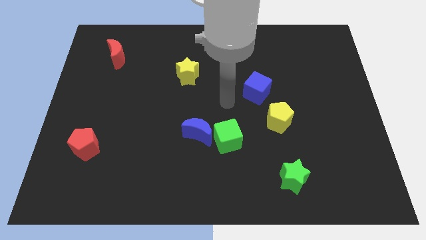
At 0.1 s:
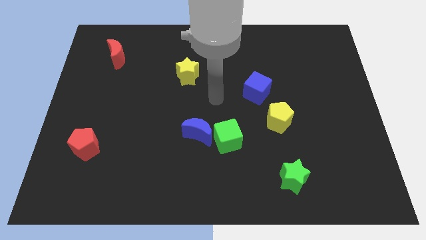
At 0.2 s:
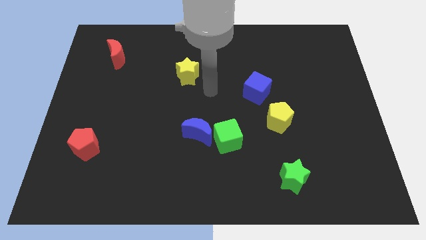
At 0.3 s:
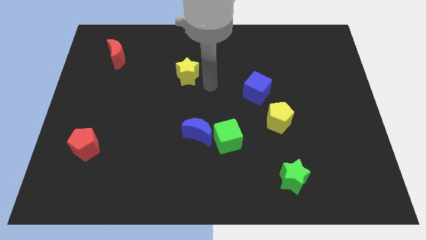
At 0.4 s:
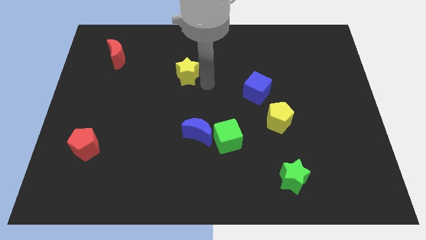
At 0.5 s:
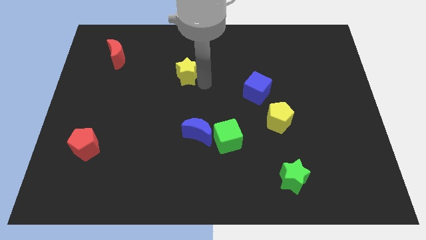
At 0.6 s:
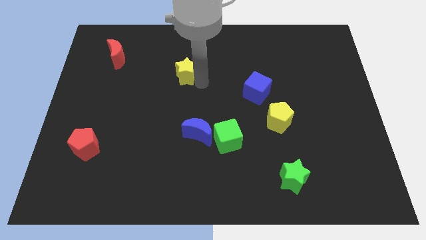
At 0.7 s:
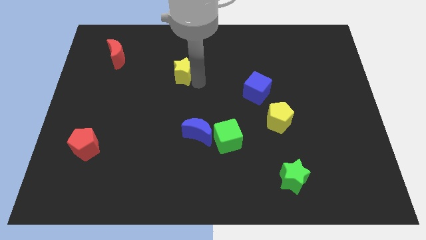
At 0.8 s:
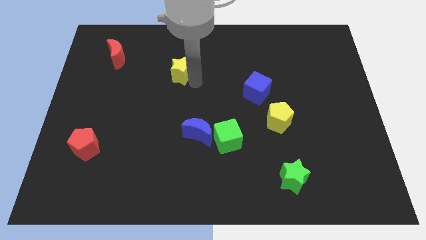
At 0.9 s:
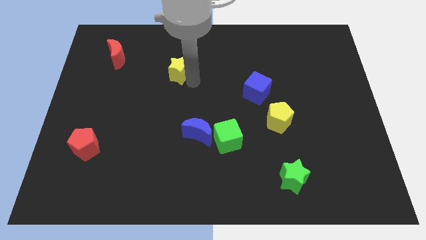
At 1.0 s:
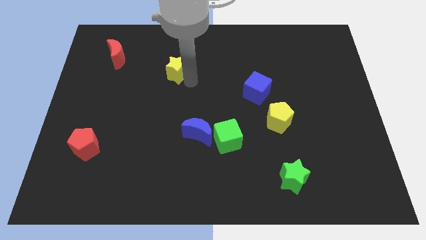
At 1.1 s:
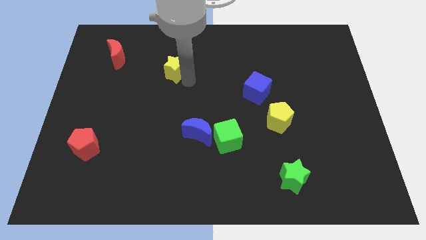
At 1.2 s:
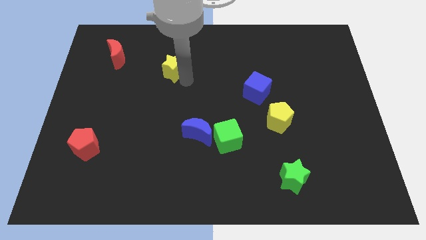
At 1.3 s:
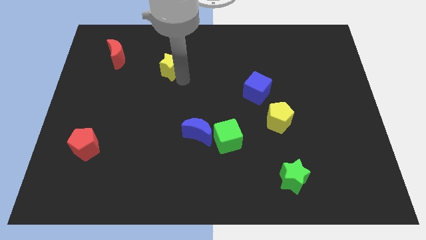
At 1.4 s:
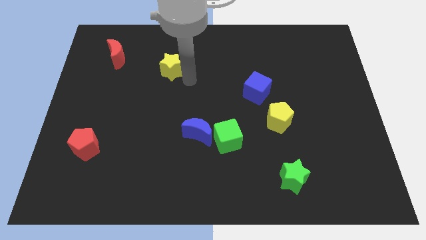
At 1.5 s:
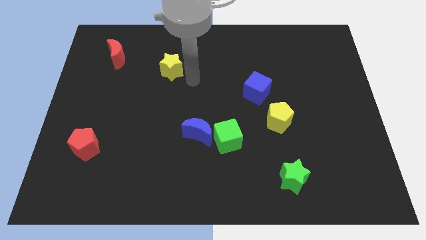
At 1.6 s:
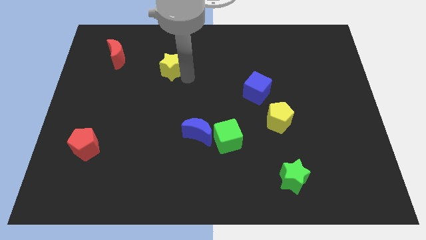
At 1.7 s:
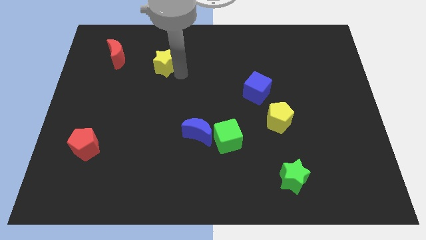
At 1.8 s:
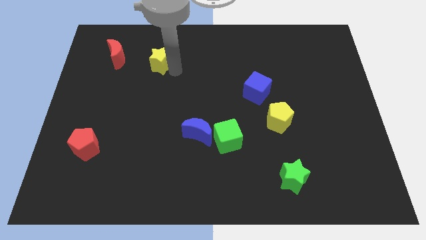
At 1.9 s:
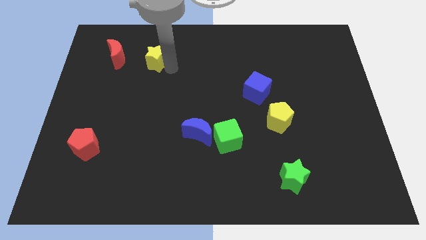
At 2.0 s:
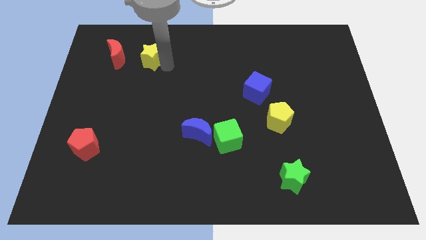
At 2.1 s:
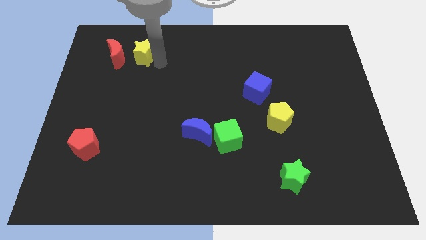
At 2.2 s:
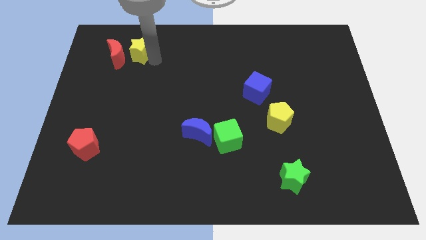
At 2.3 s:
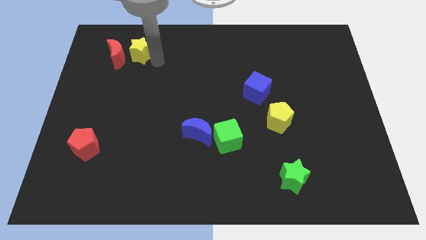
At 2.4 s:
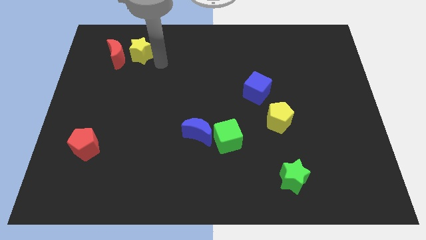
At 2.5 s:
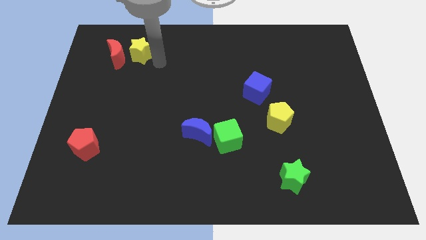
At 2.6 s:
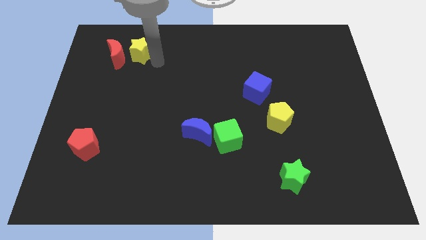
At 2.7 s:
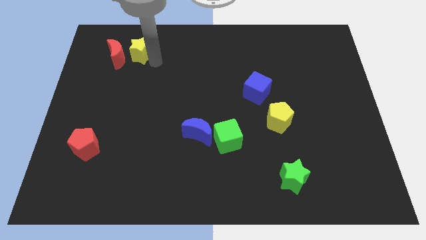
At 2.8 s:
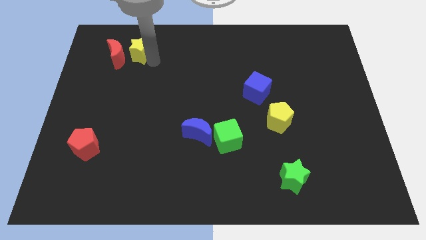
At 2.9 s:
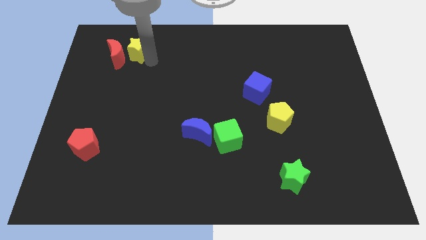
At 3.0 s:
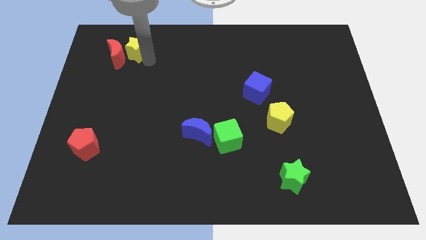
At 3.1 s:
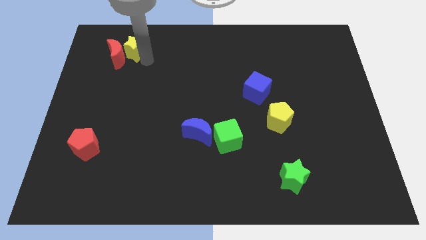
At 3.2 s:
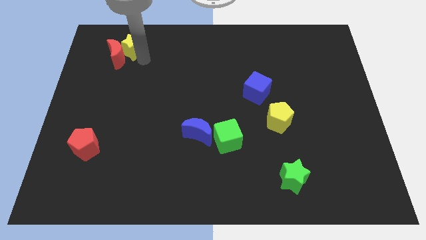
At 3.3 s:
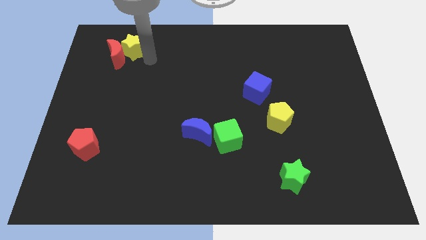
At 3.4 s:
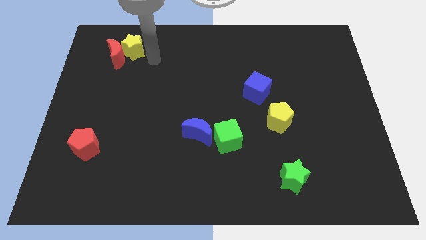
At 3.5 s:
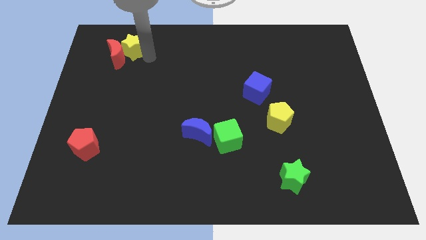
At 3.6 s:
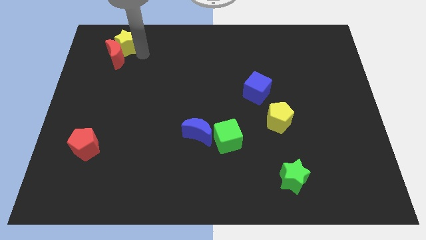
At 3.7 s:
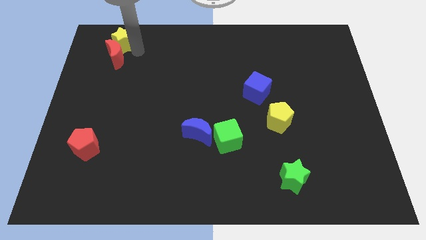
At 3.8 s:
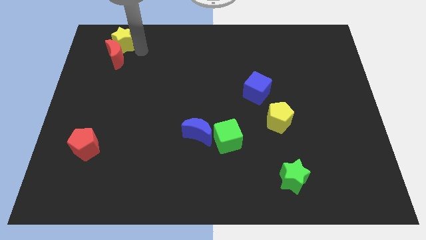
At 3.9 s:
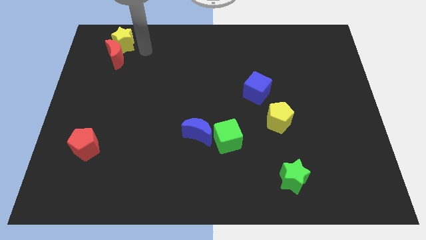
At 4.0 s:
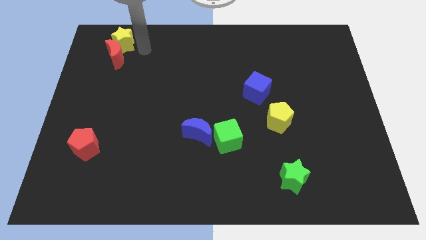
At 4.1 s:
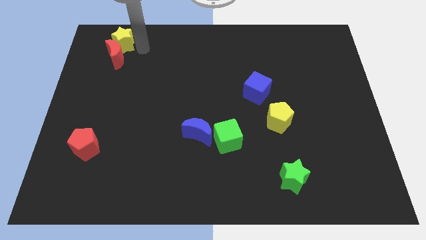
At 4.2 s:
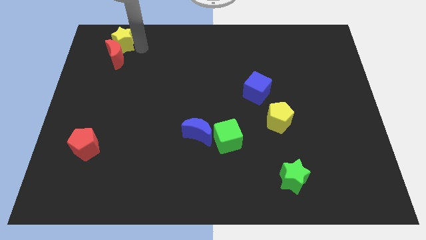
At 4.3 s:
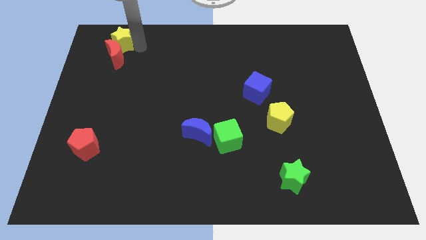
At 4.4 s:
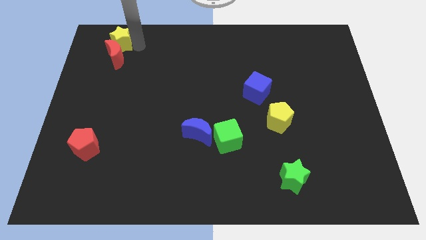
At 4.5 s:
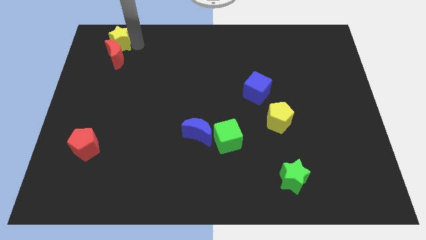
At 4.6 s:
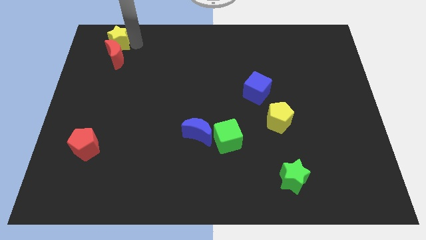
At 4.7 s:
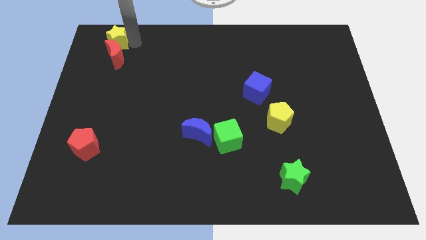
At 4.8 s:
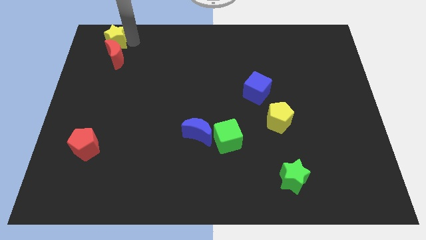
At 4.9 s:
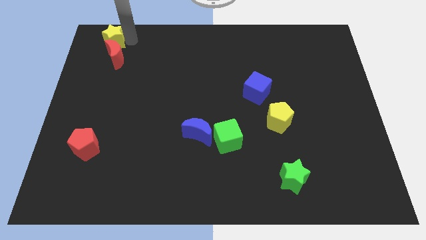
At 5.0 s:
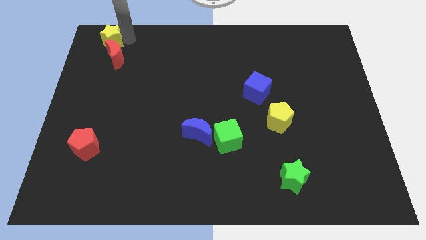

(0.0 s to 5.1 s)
push the yellow star to the top left

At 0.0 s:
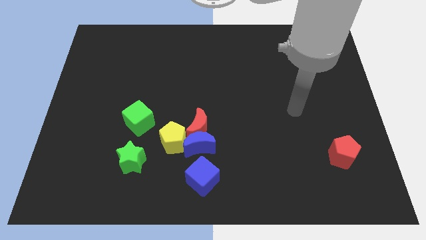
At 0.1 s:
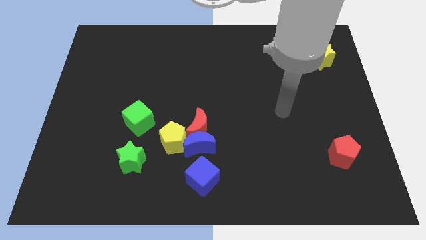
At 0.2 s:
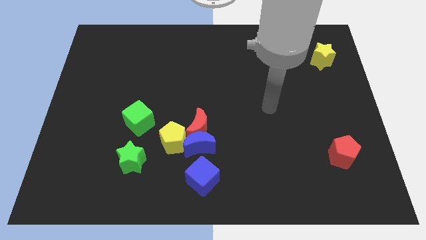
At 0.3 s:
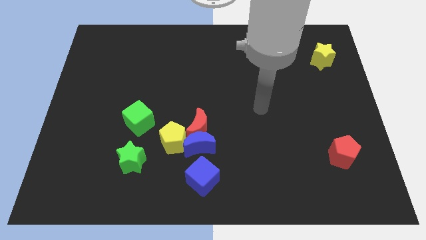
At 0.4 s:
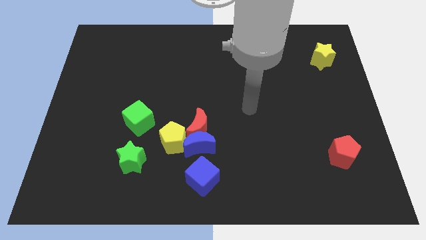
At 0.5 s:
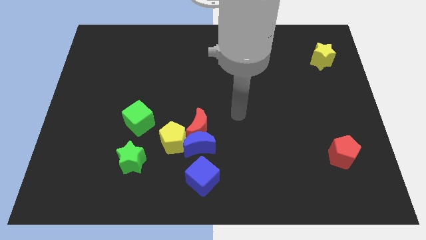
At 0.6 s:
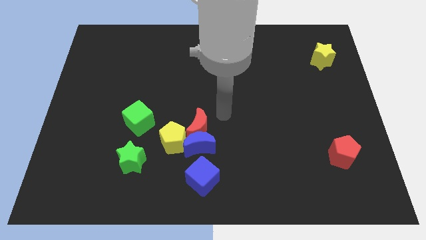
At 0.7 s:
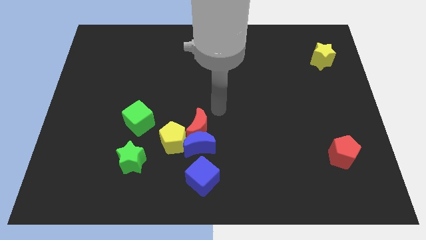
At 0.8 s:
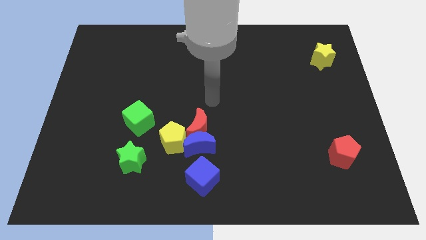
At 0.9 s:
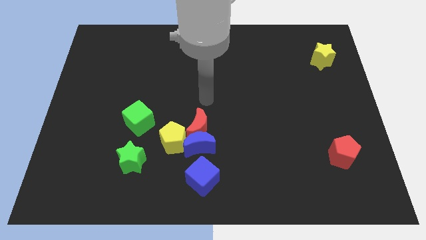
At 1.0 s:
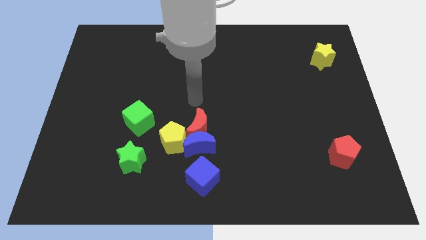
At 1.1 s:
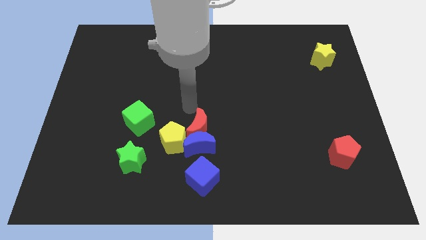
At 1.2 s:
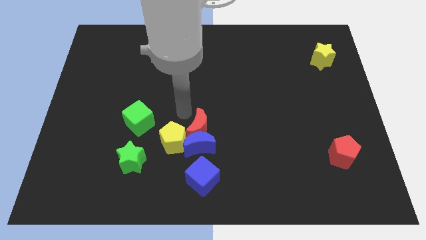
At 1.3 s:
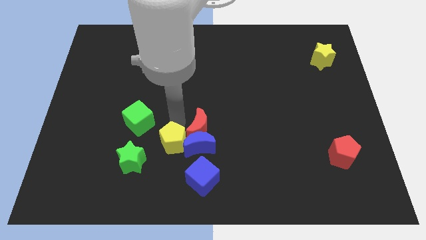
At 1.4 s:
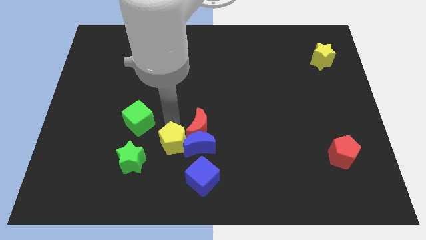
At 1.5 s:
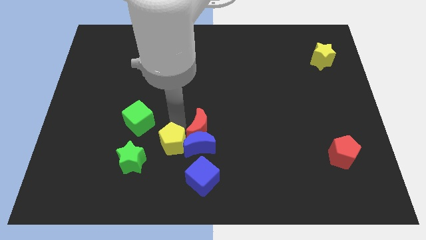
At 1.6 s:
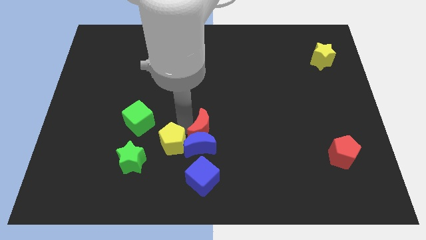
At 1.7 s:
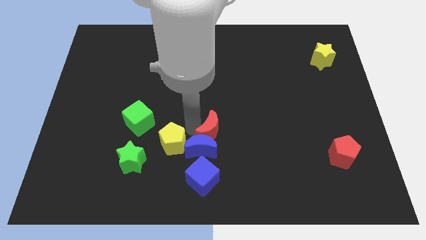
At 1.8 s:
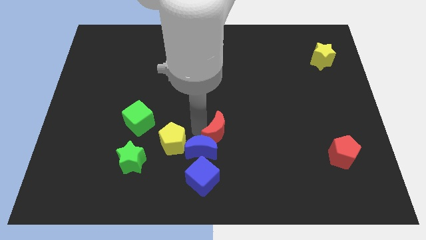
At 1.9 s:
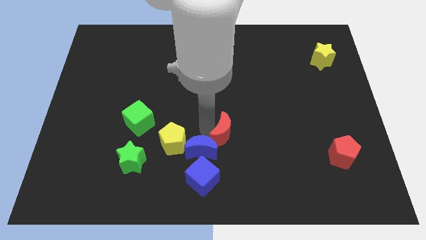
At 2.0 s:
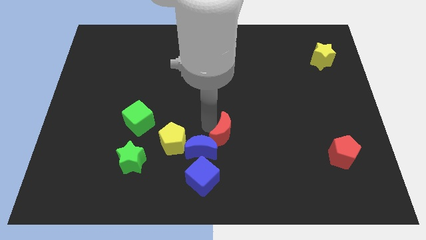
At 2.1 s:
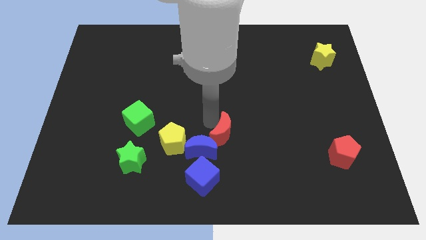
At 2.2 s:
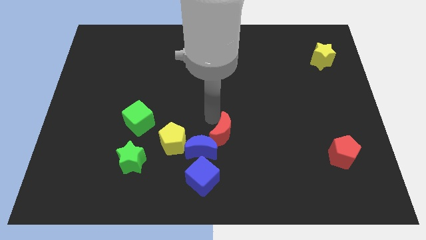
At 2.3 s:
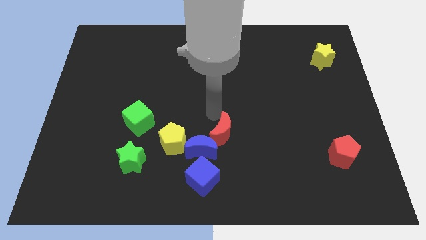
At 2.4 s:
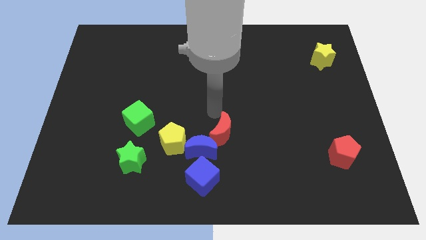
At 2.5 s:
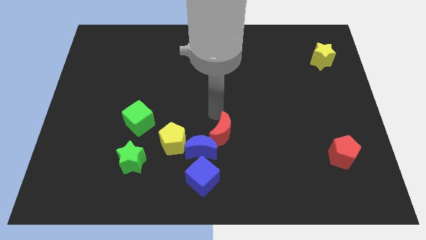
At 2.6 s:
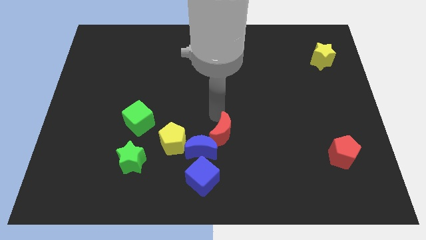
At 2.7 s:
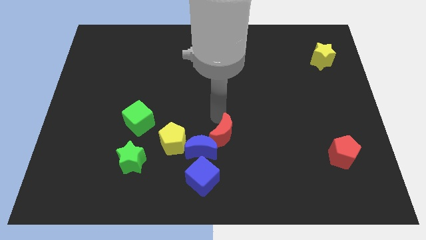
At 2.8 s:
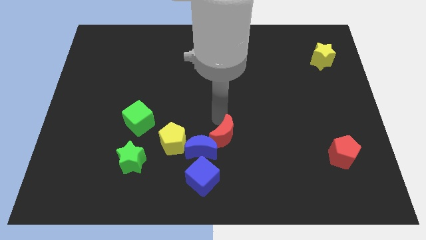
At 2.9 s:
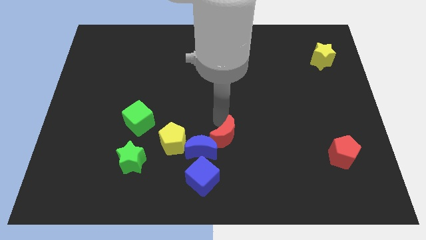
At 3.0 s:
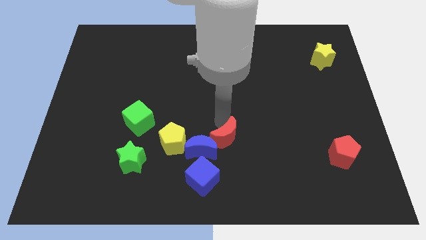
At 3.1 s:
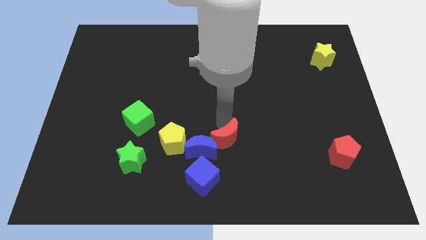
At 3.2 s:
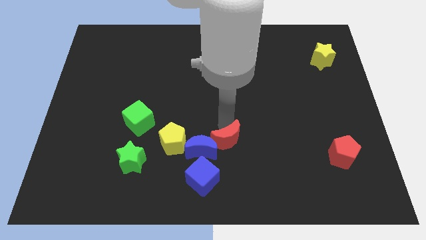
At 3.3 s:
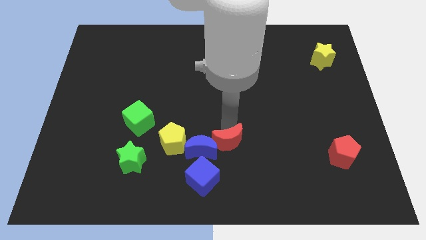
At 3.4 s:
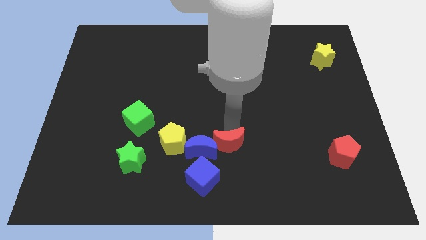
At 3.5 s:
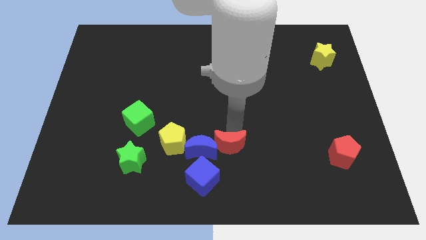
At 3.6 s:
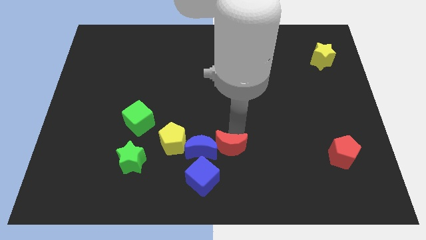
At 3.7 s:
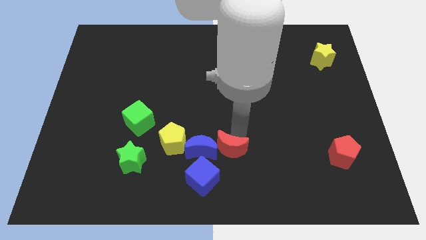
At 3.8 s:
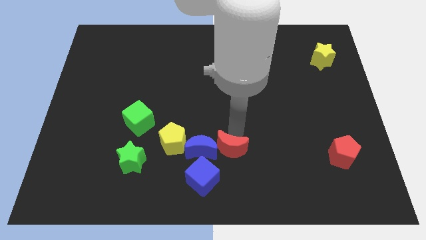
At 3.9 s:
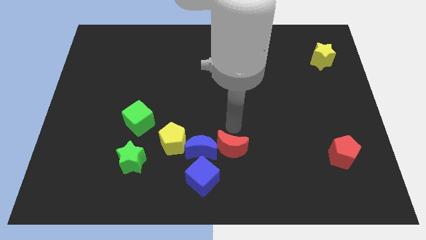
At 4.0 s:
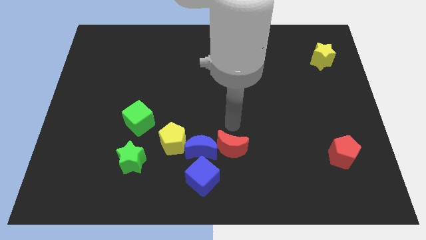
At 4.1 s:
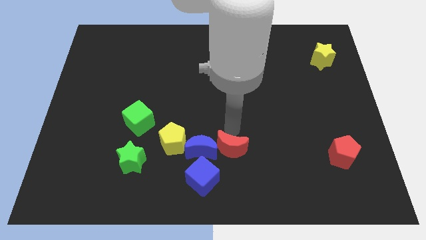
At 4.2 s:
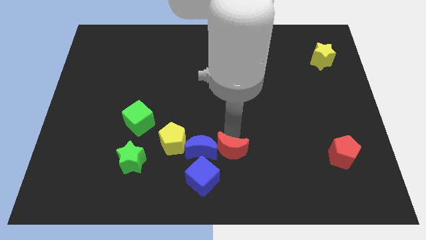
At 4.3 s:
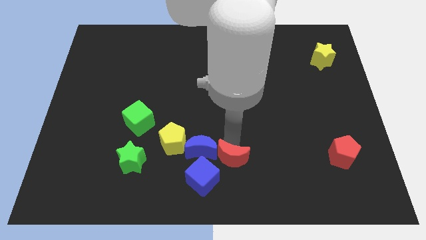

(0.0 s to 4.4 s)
push the red moon to the bottom
